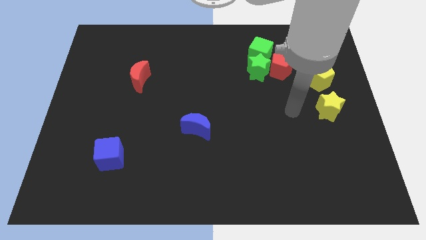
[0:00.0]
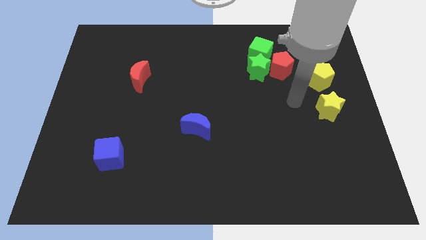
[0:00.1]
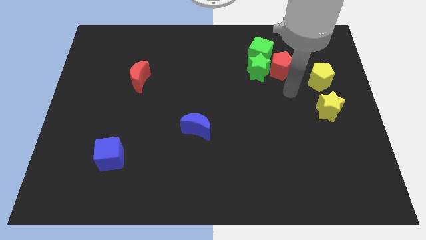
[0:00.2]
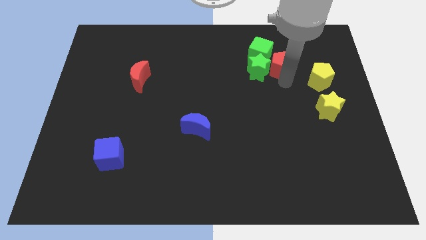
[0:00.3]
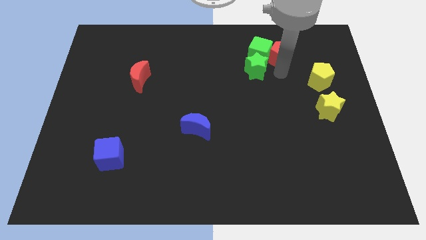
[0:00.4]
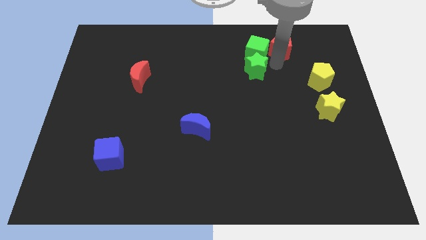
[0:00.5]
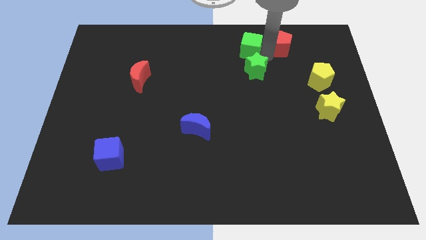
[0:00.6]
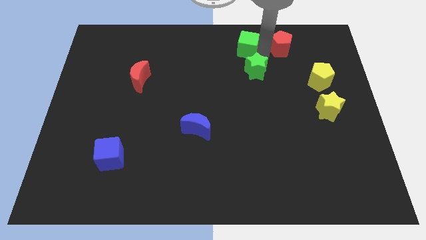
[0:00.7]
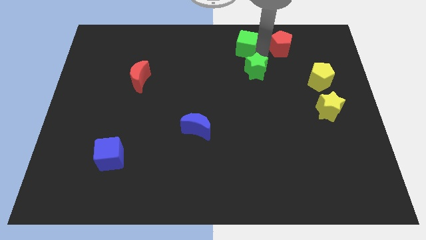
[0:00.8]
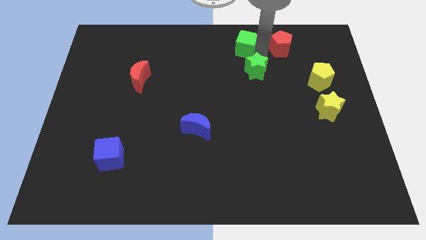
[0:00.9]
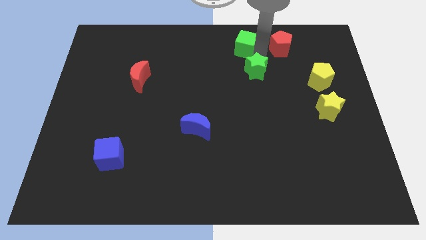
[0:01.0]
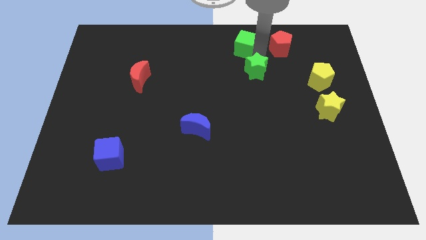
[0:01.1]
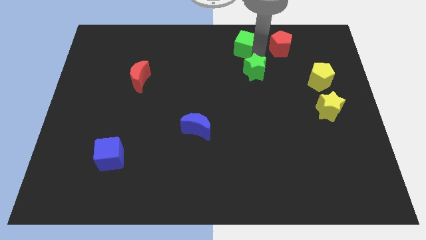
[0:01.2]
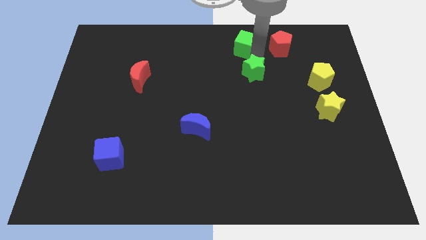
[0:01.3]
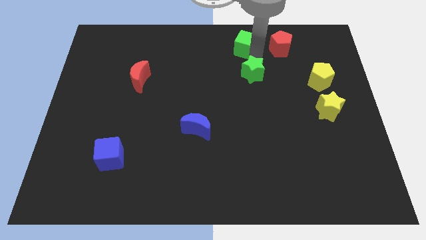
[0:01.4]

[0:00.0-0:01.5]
move the green star away from the green cube and red pentagon

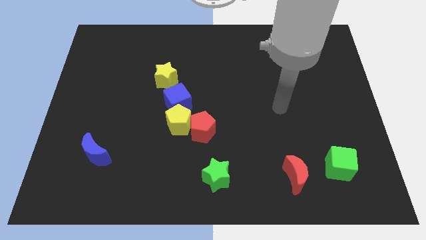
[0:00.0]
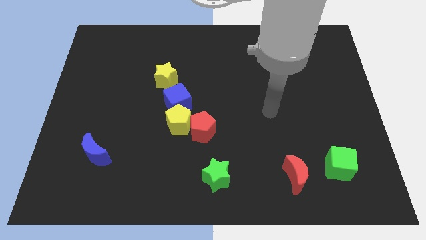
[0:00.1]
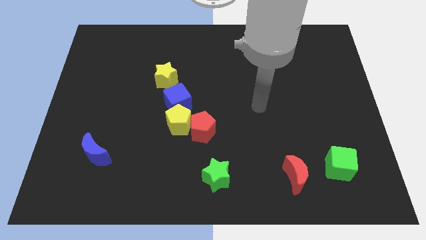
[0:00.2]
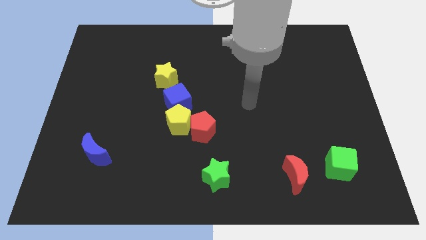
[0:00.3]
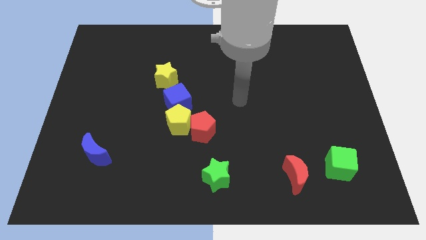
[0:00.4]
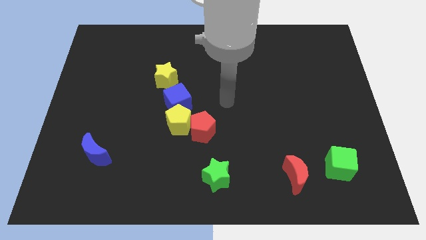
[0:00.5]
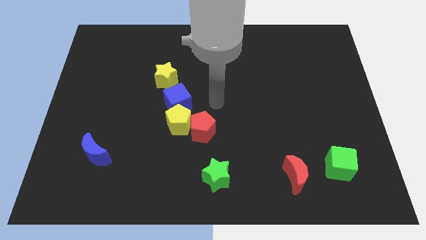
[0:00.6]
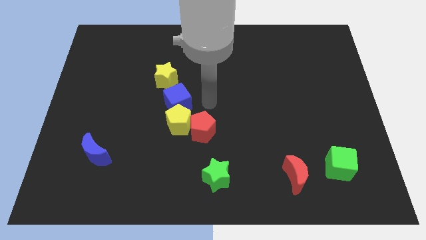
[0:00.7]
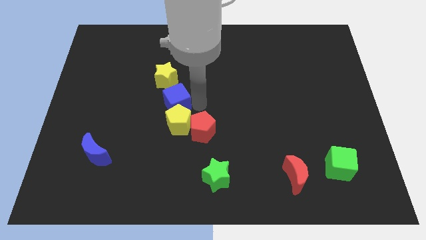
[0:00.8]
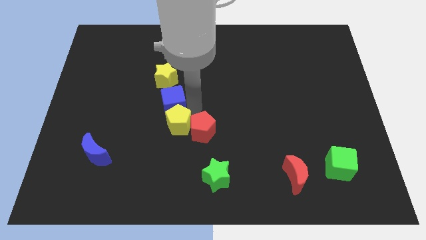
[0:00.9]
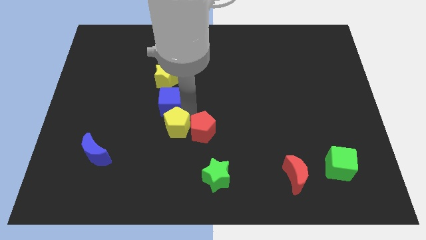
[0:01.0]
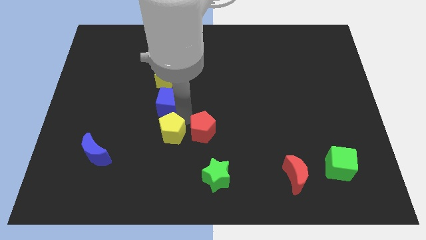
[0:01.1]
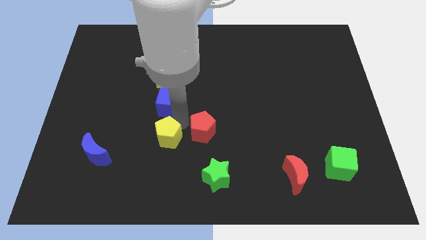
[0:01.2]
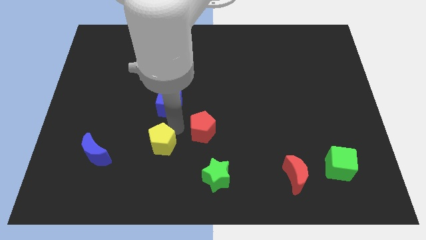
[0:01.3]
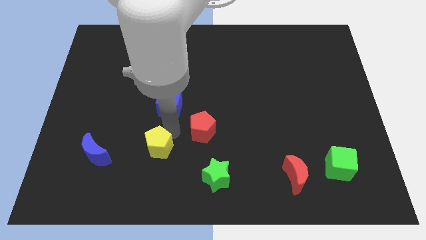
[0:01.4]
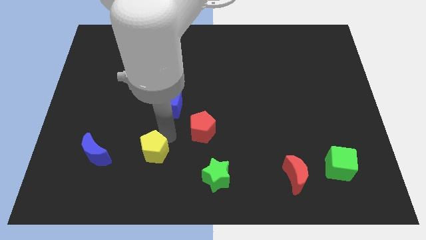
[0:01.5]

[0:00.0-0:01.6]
move the yellow pentagon away from the red pentagon and blue cube

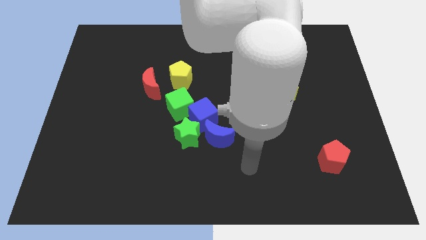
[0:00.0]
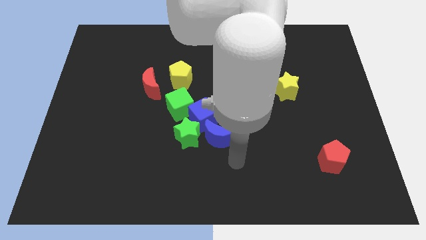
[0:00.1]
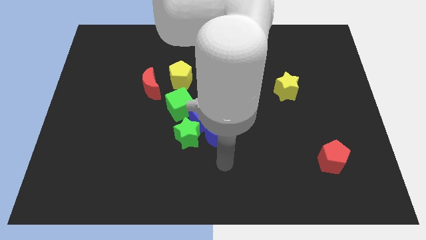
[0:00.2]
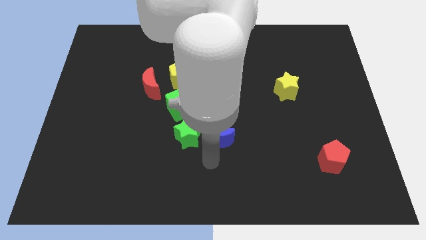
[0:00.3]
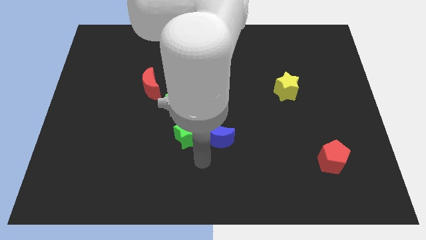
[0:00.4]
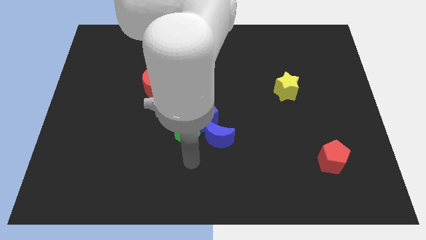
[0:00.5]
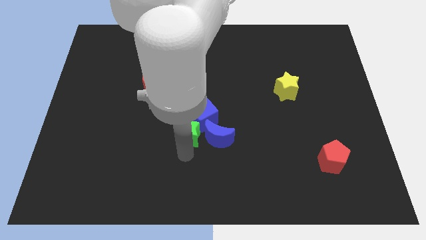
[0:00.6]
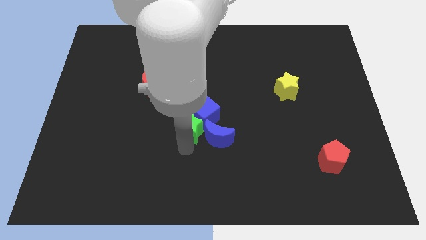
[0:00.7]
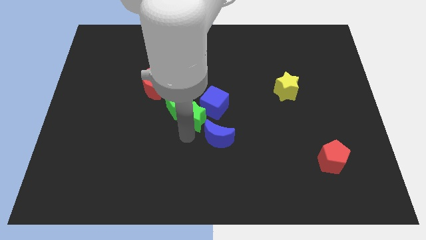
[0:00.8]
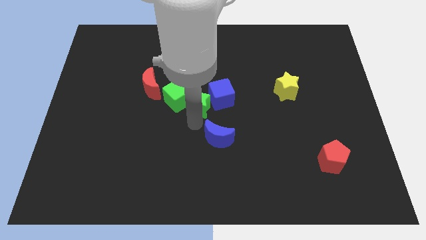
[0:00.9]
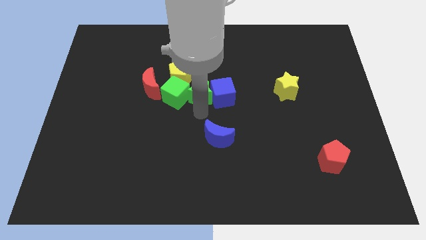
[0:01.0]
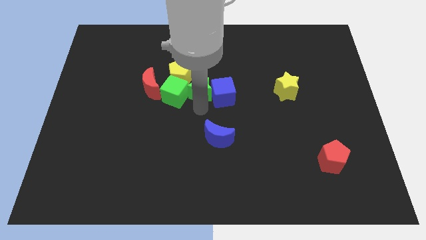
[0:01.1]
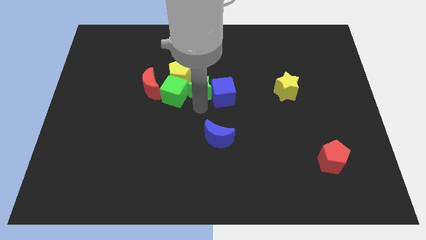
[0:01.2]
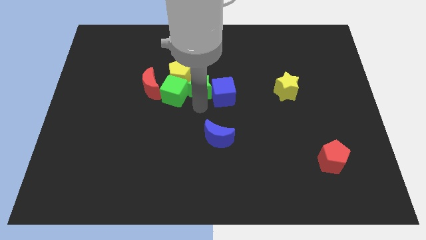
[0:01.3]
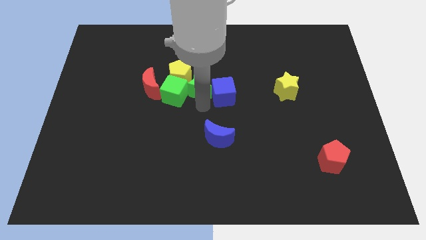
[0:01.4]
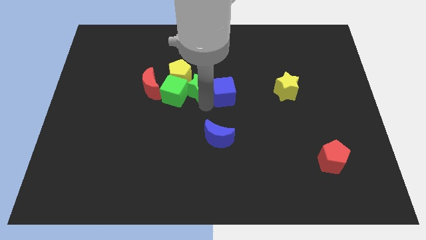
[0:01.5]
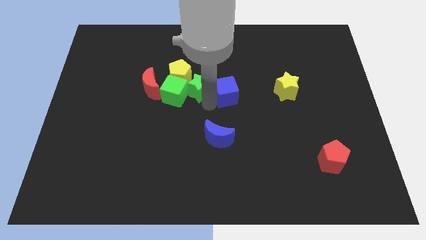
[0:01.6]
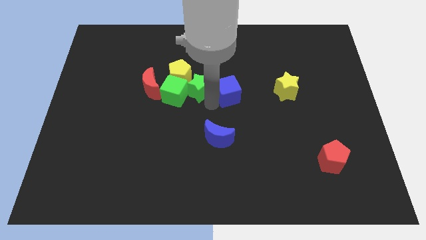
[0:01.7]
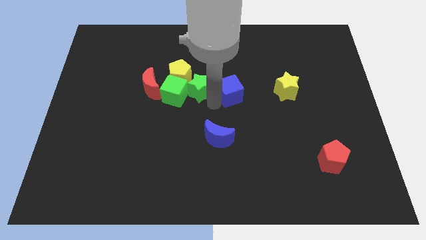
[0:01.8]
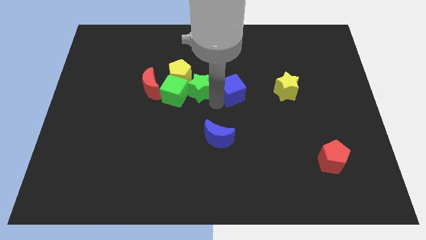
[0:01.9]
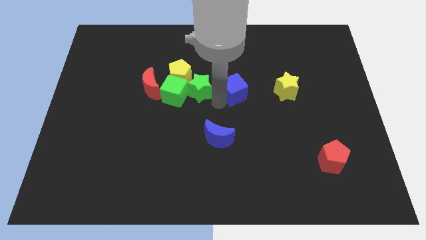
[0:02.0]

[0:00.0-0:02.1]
move the blue cube away from the clump

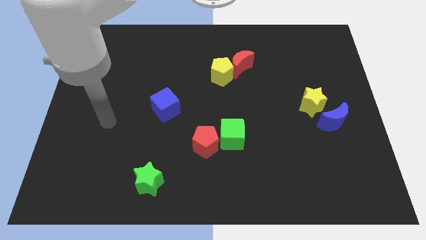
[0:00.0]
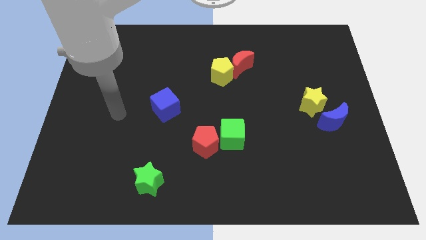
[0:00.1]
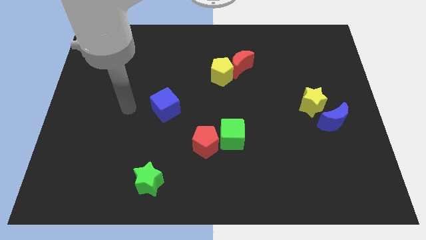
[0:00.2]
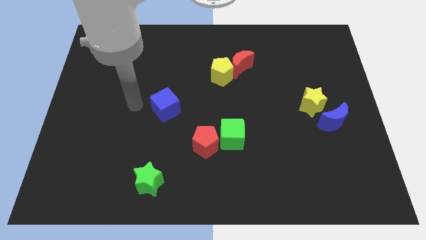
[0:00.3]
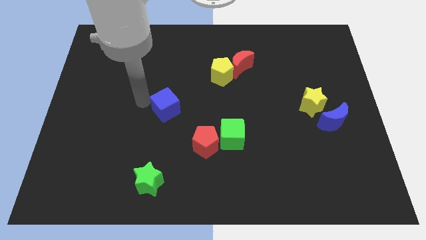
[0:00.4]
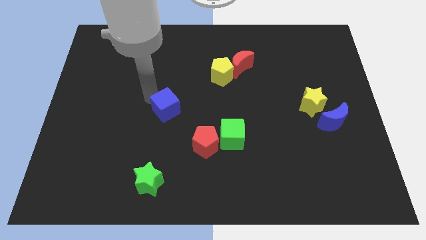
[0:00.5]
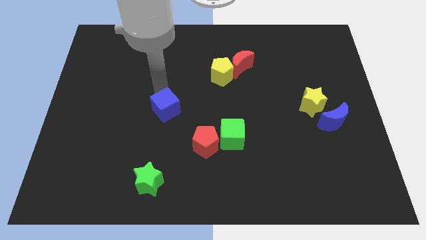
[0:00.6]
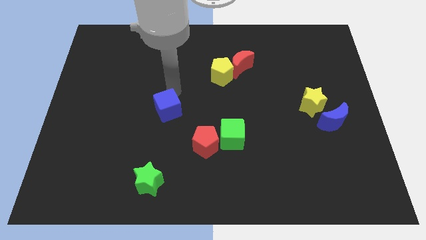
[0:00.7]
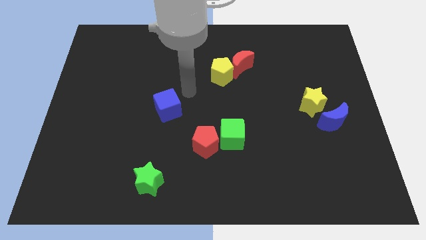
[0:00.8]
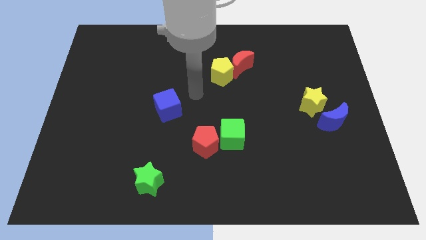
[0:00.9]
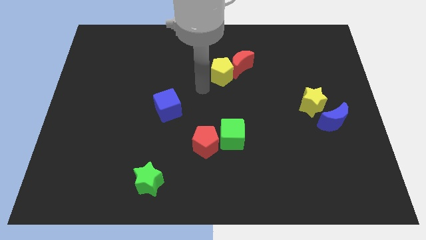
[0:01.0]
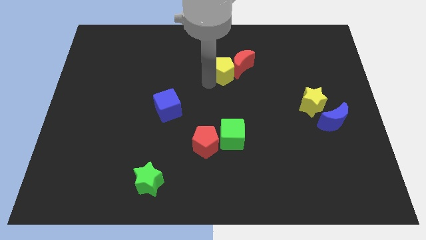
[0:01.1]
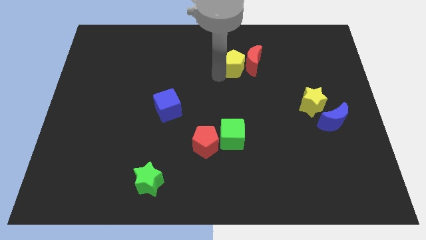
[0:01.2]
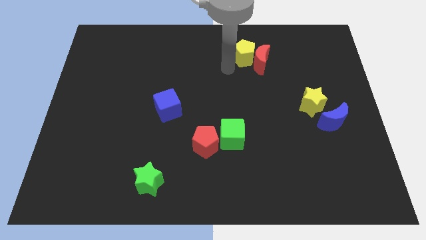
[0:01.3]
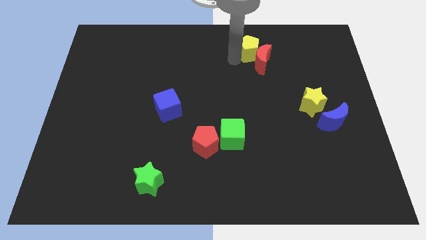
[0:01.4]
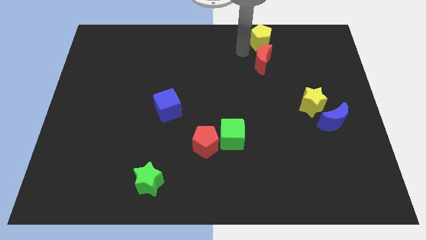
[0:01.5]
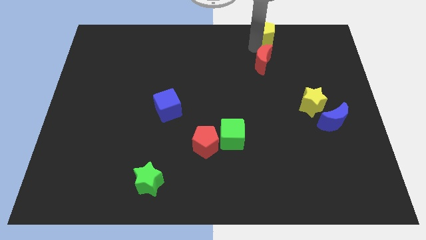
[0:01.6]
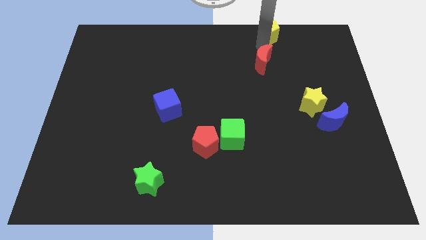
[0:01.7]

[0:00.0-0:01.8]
move the red moon away from the yellow pentagon

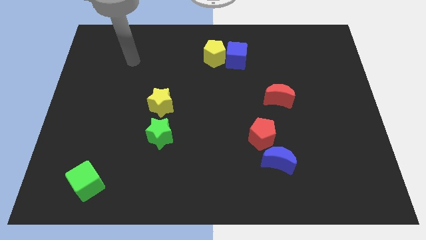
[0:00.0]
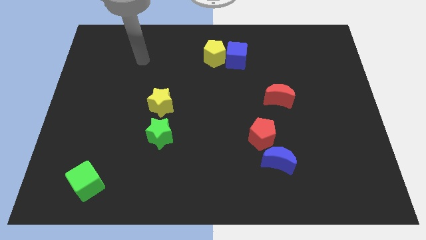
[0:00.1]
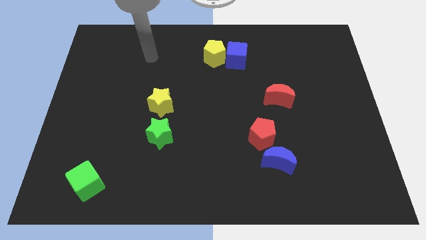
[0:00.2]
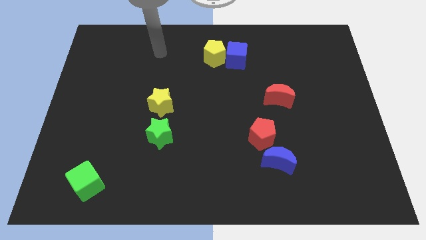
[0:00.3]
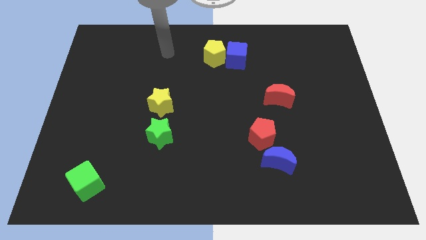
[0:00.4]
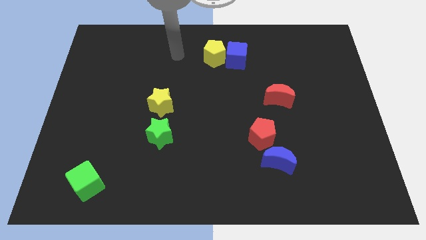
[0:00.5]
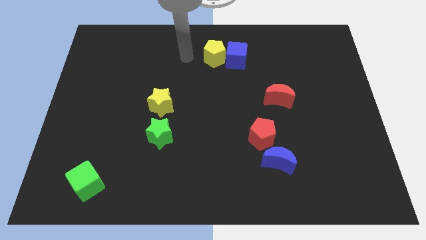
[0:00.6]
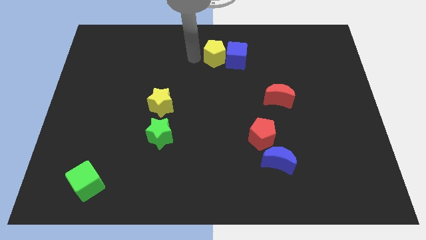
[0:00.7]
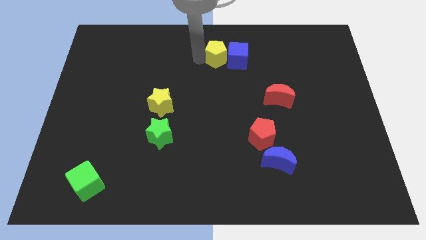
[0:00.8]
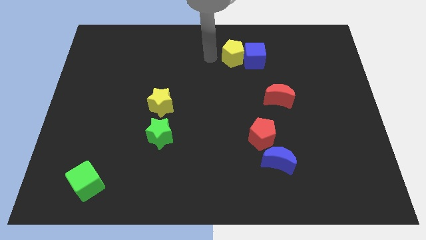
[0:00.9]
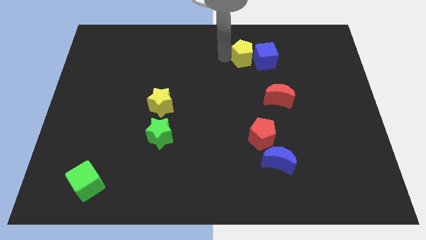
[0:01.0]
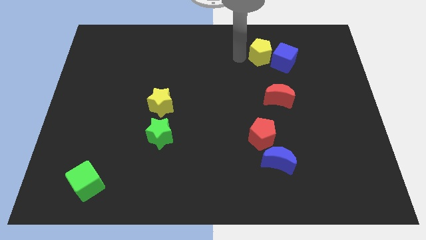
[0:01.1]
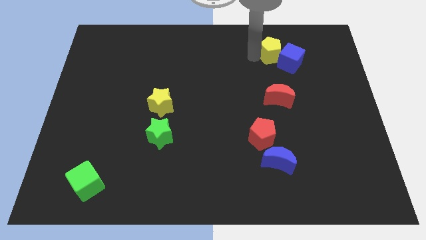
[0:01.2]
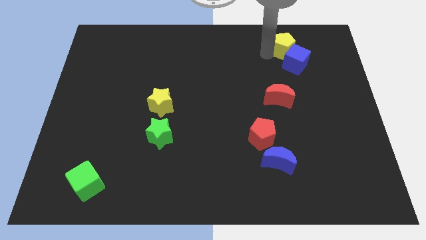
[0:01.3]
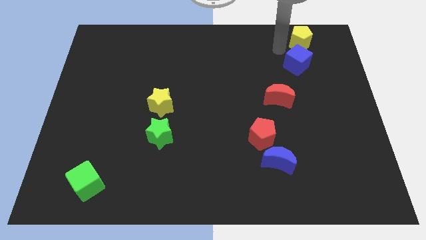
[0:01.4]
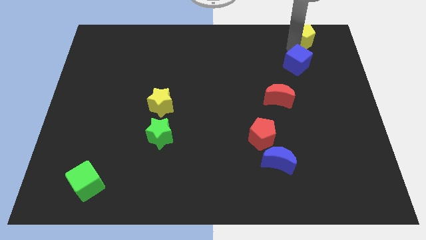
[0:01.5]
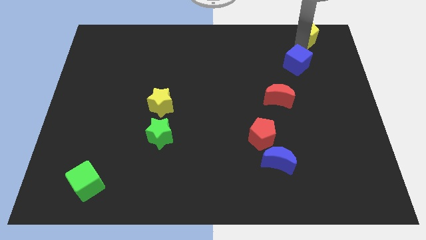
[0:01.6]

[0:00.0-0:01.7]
pull the blue cube apart from the yellow pentagon

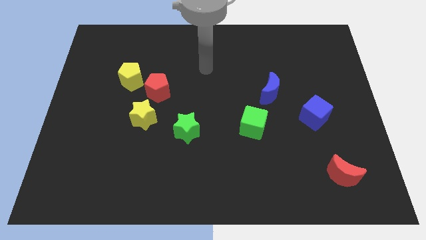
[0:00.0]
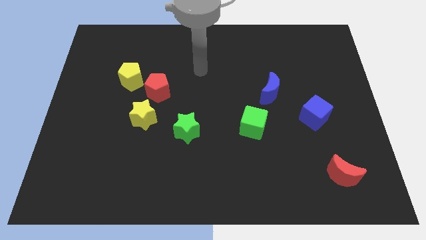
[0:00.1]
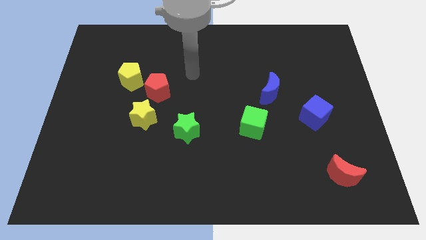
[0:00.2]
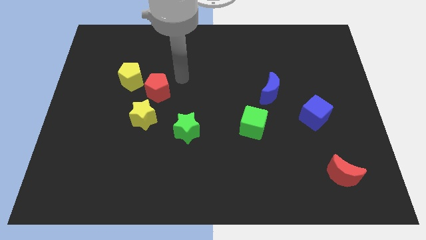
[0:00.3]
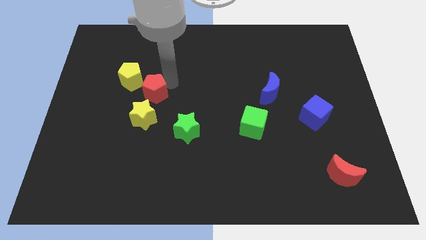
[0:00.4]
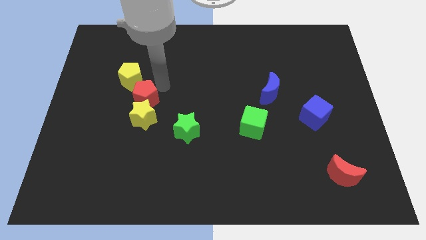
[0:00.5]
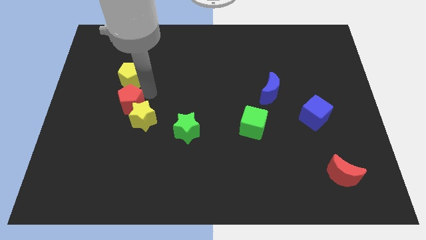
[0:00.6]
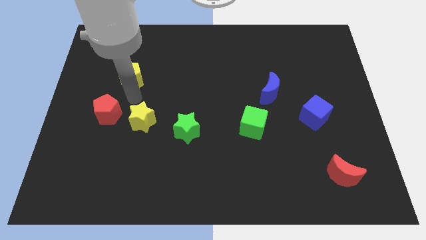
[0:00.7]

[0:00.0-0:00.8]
pull the yellow pentagon apart from the red pentagon
